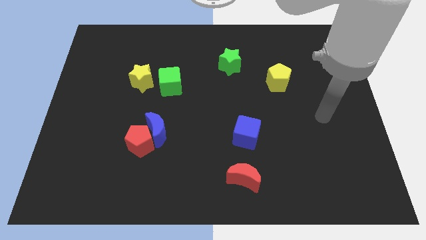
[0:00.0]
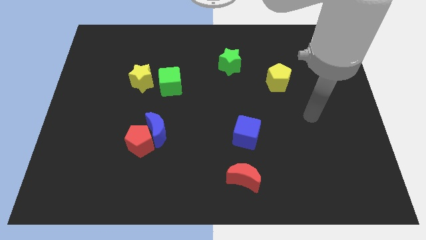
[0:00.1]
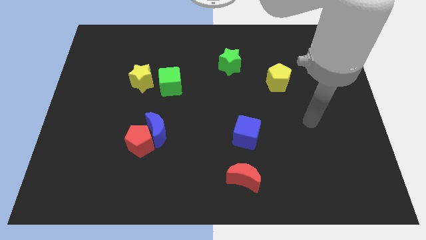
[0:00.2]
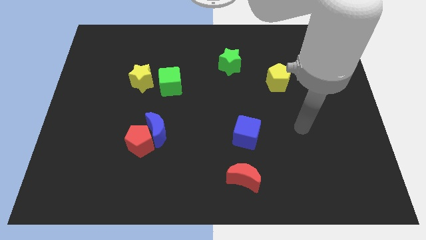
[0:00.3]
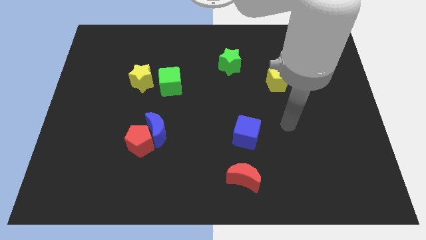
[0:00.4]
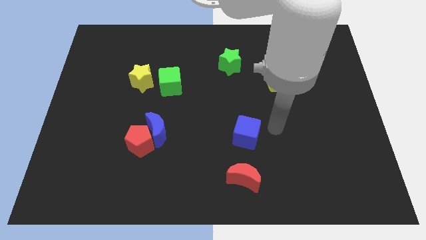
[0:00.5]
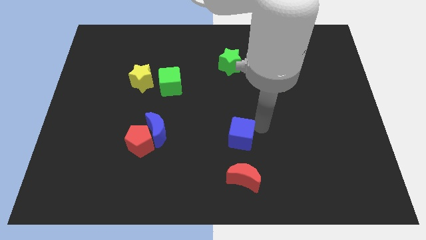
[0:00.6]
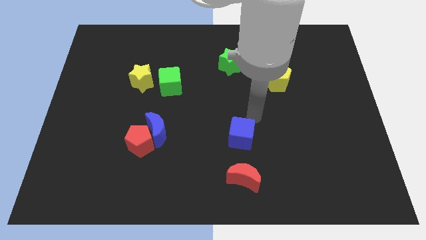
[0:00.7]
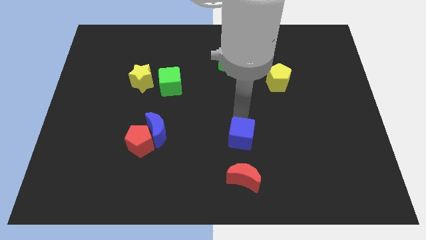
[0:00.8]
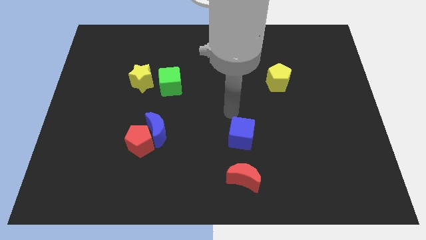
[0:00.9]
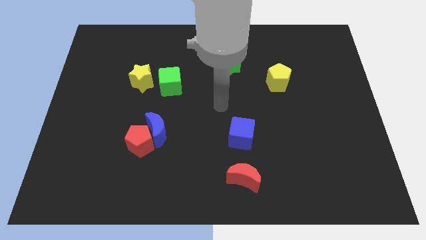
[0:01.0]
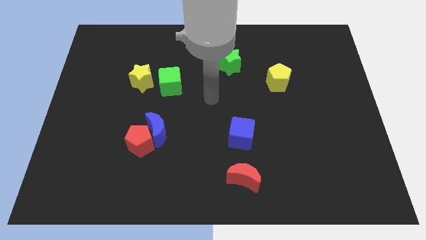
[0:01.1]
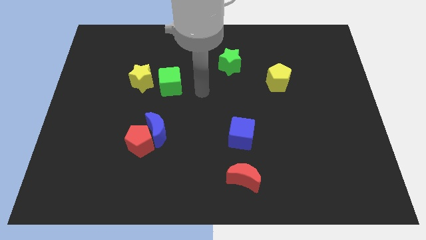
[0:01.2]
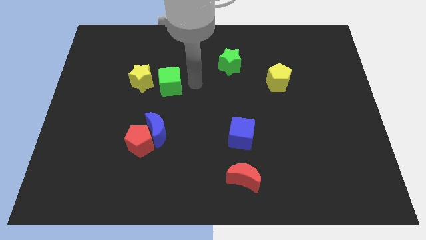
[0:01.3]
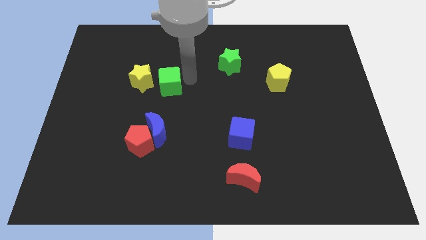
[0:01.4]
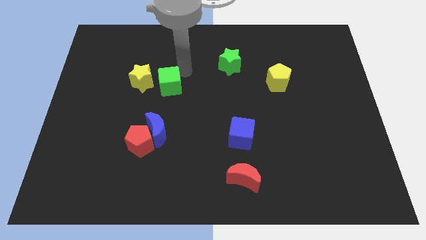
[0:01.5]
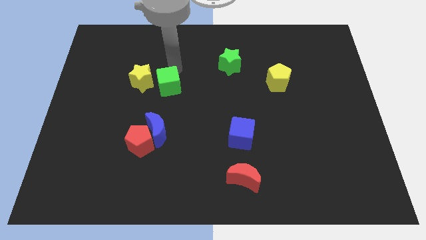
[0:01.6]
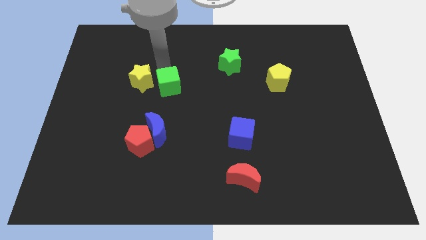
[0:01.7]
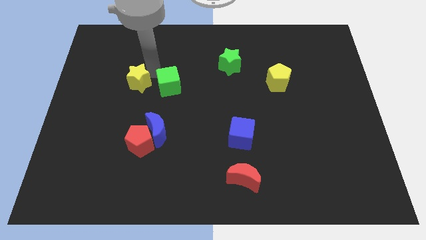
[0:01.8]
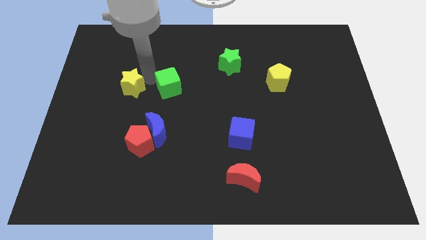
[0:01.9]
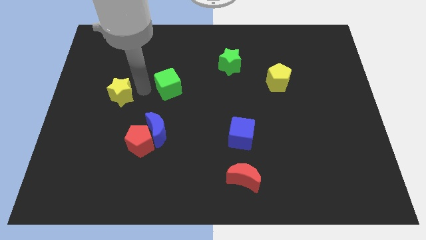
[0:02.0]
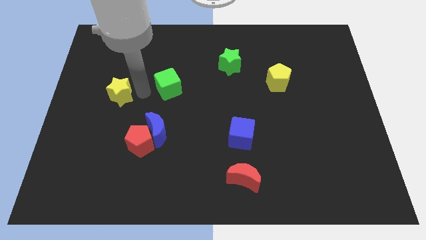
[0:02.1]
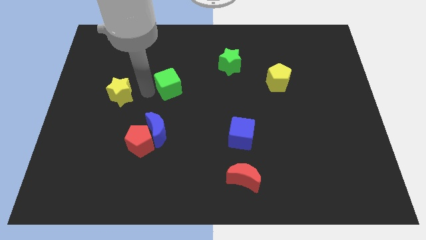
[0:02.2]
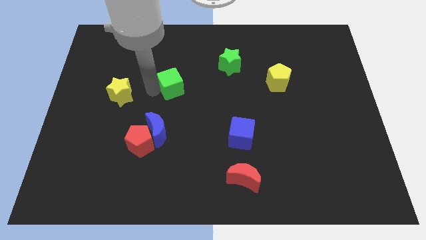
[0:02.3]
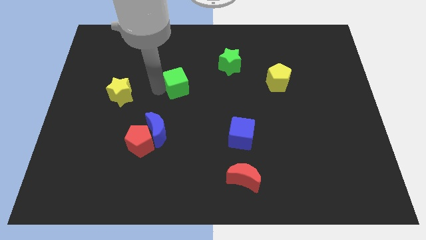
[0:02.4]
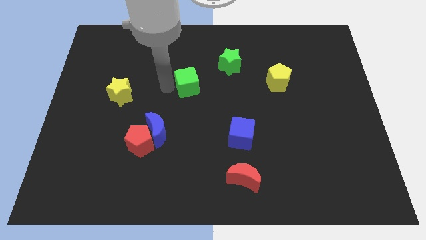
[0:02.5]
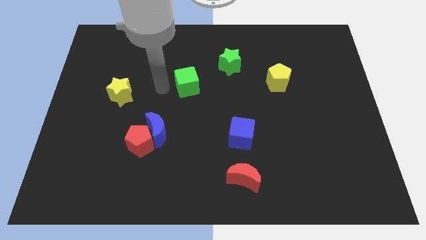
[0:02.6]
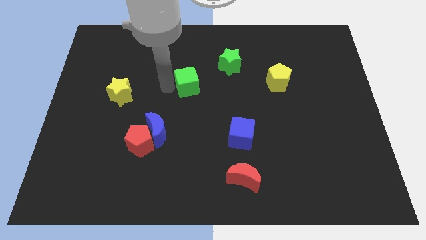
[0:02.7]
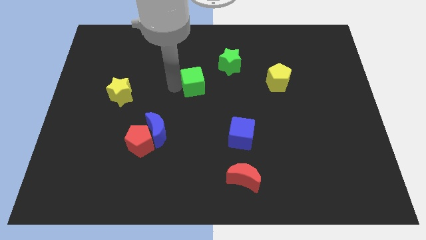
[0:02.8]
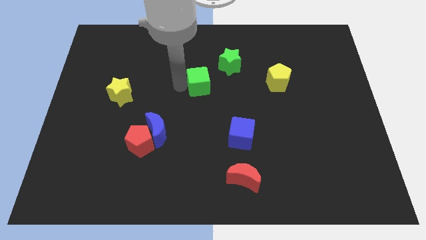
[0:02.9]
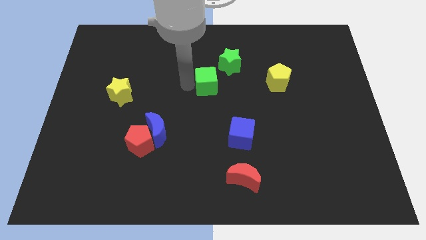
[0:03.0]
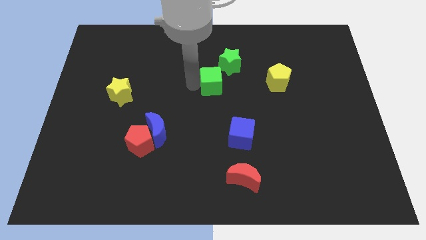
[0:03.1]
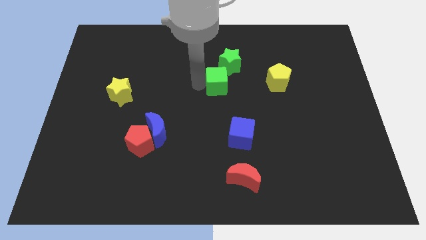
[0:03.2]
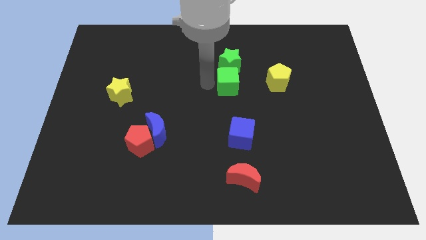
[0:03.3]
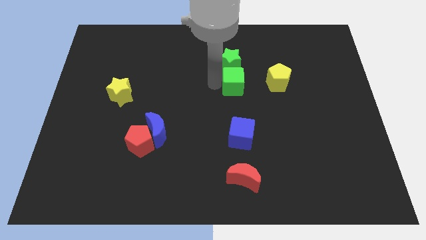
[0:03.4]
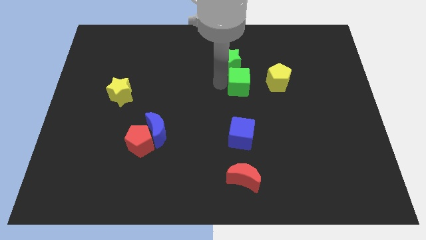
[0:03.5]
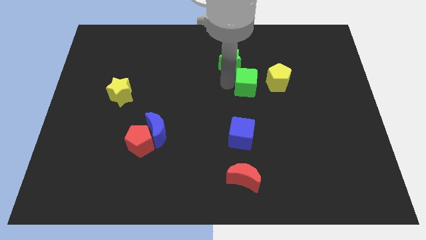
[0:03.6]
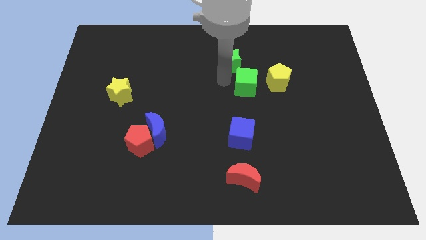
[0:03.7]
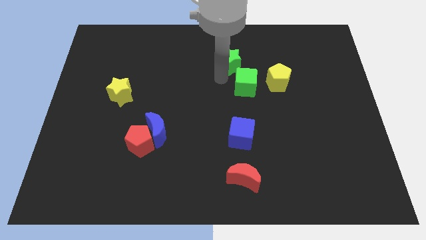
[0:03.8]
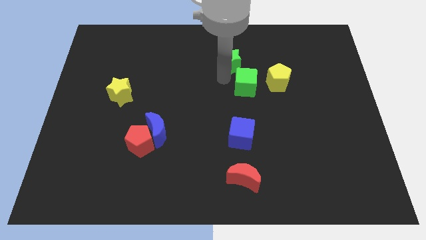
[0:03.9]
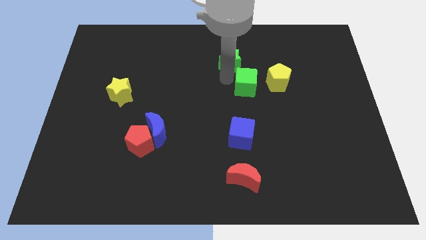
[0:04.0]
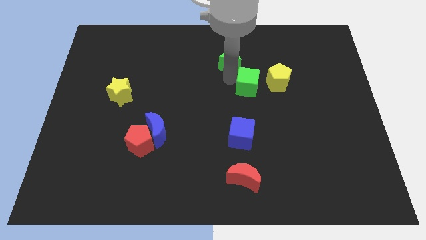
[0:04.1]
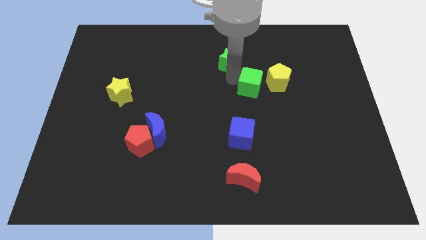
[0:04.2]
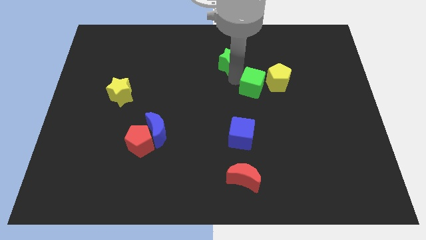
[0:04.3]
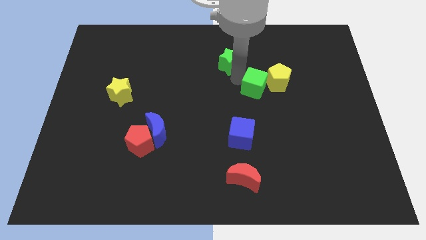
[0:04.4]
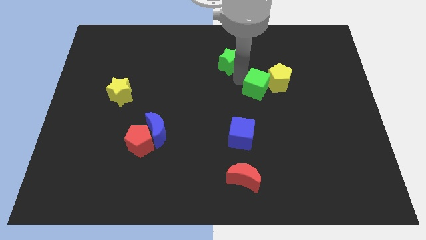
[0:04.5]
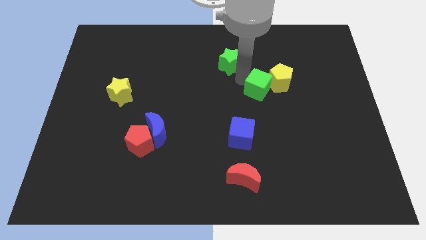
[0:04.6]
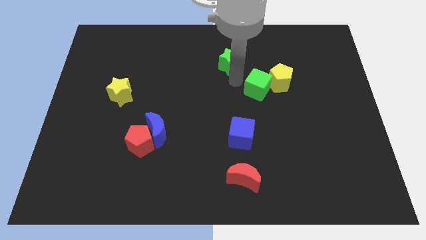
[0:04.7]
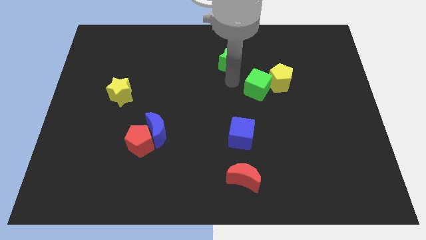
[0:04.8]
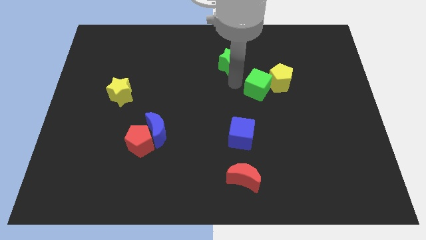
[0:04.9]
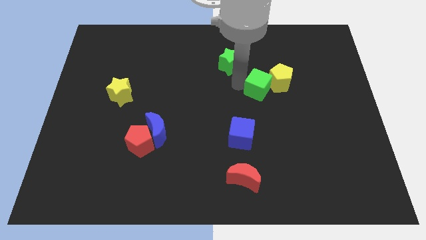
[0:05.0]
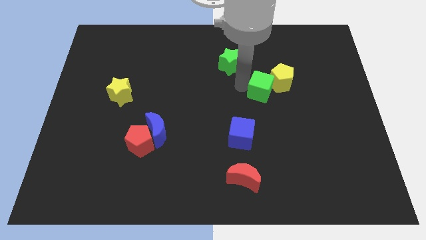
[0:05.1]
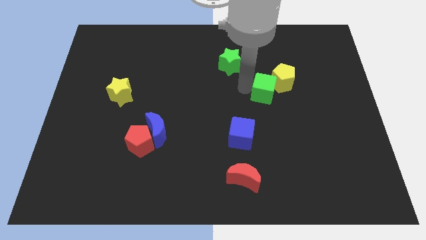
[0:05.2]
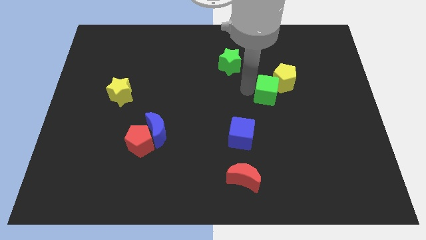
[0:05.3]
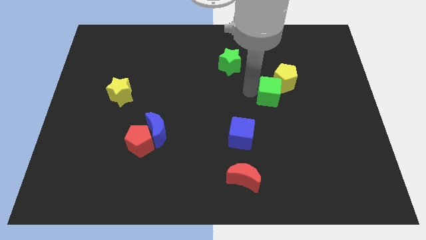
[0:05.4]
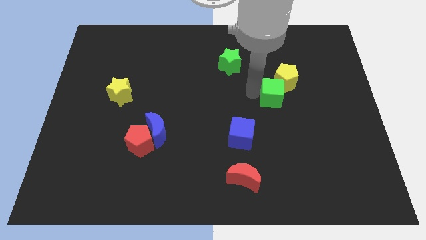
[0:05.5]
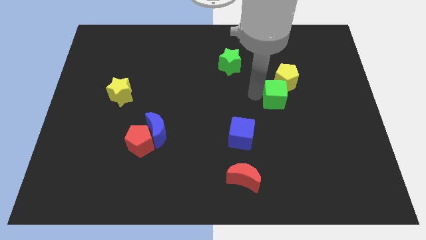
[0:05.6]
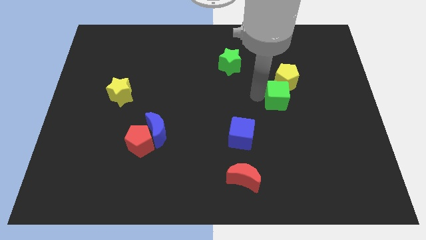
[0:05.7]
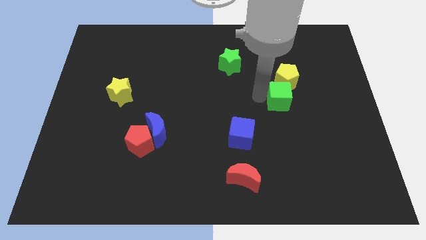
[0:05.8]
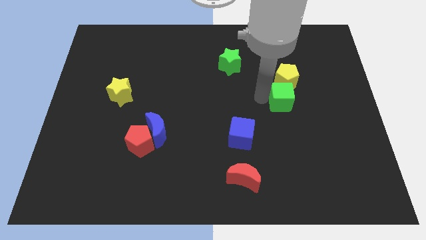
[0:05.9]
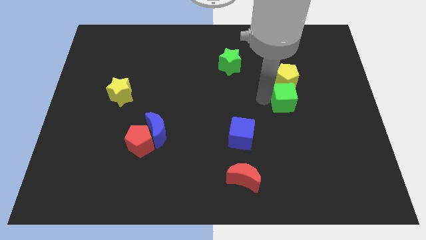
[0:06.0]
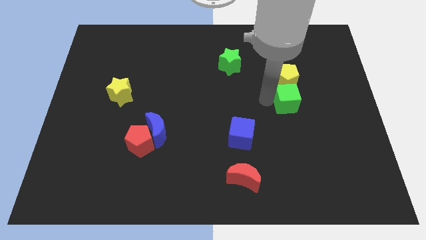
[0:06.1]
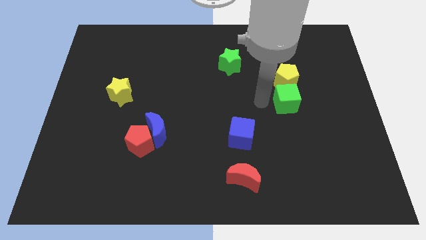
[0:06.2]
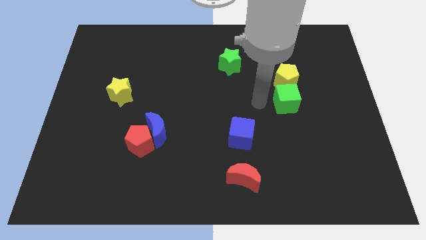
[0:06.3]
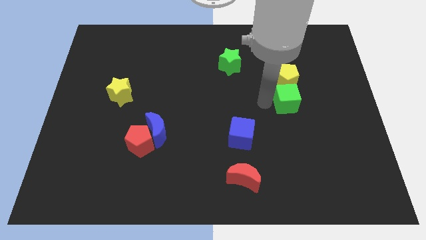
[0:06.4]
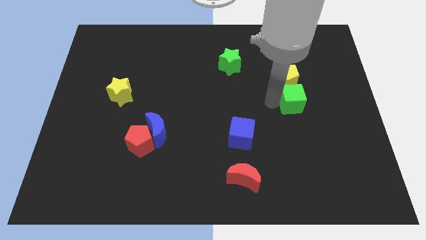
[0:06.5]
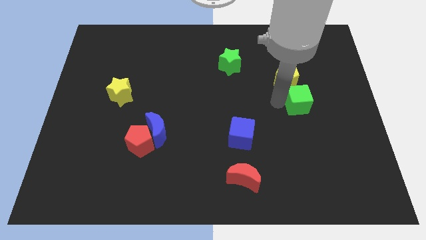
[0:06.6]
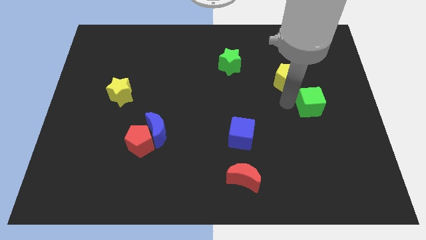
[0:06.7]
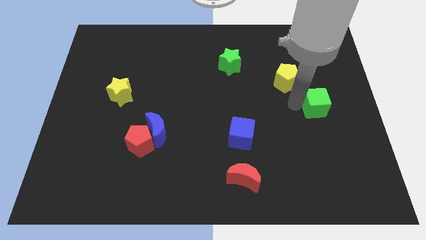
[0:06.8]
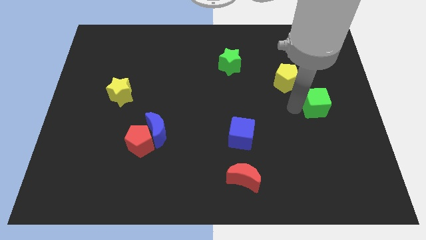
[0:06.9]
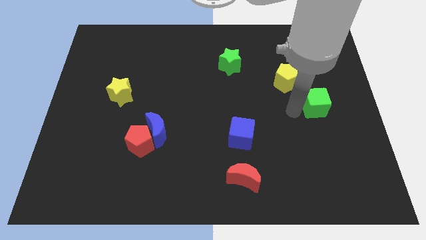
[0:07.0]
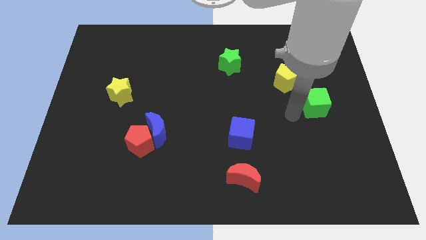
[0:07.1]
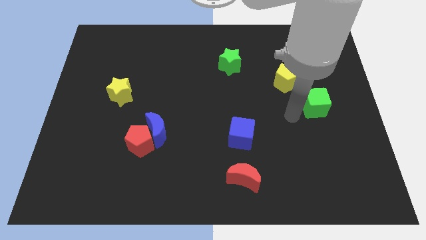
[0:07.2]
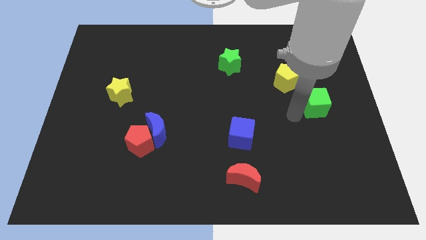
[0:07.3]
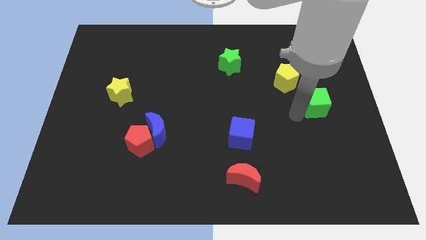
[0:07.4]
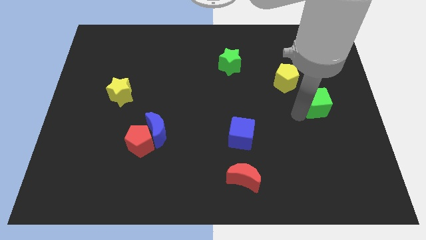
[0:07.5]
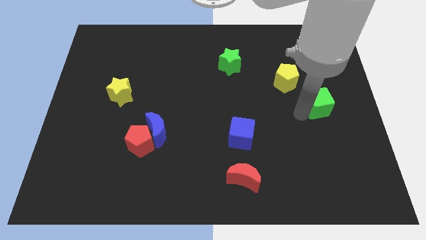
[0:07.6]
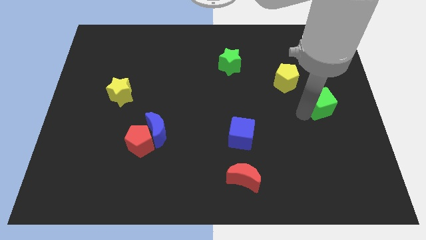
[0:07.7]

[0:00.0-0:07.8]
push the green cube to the center right
